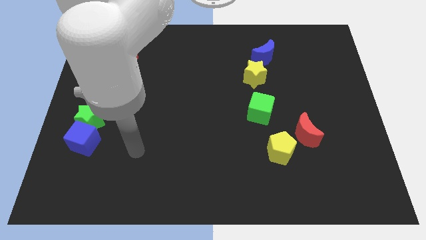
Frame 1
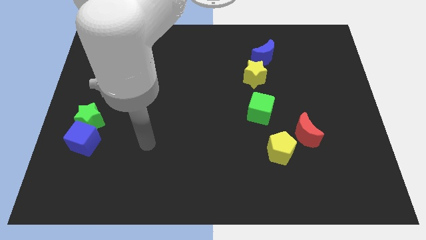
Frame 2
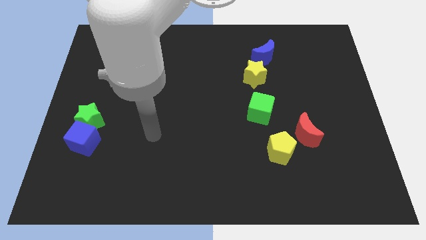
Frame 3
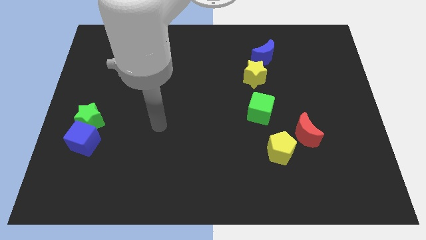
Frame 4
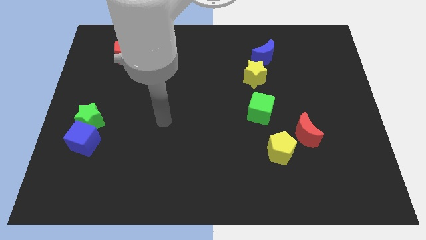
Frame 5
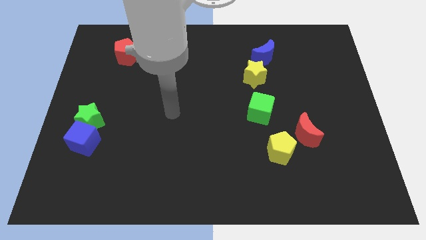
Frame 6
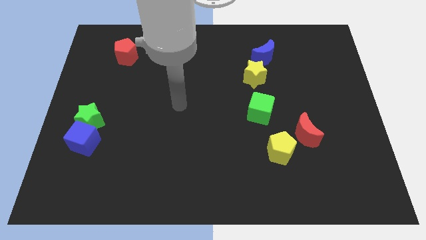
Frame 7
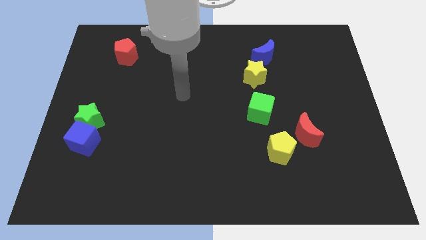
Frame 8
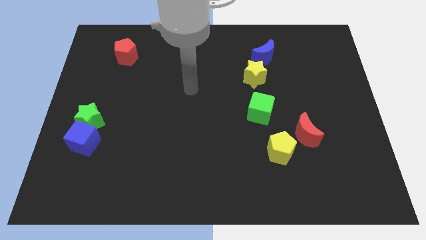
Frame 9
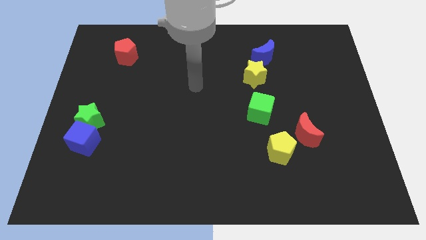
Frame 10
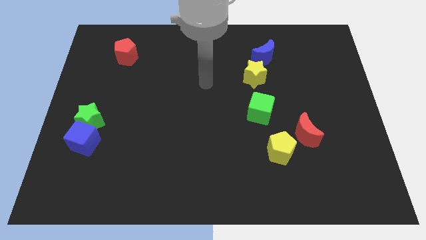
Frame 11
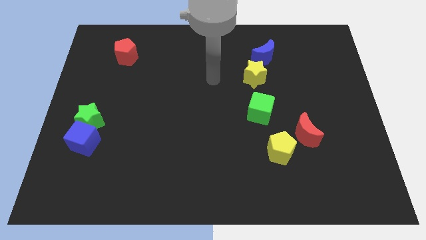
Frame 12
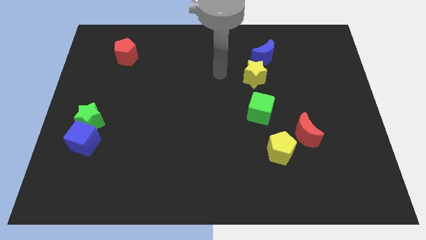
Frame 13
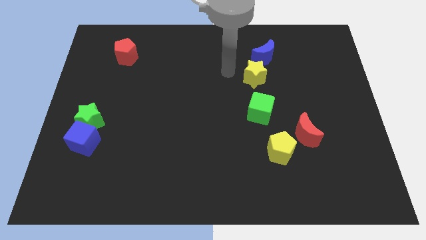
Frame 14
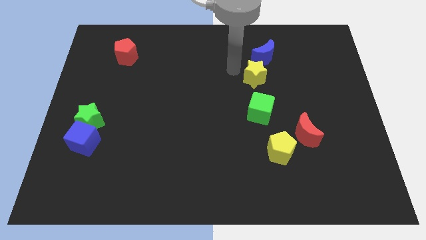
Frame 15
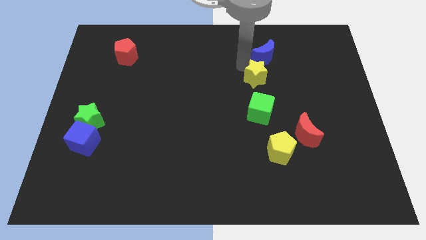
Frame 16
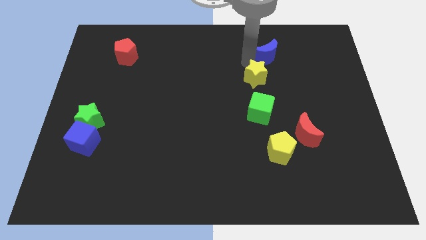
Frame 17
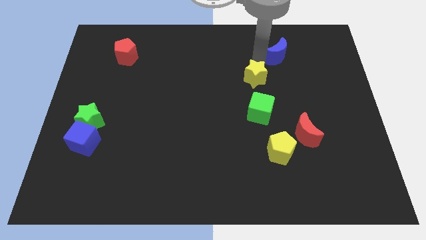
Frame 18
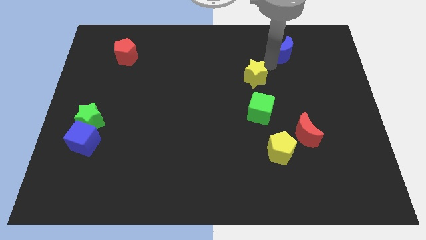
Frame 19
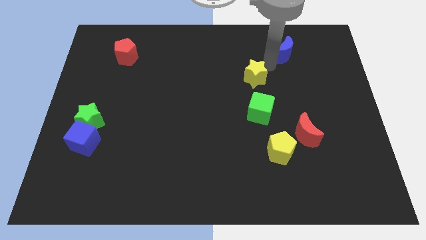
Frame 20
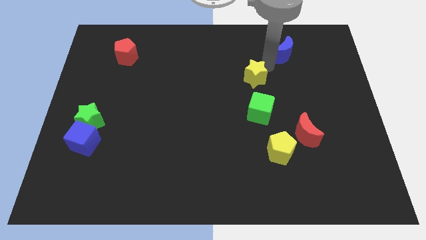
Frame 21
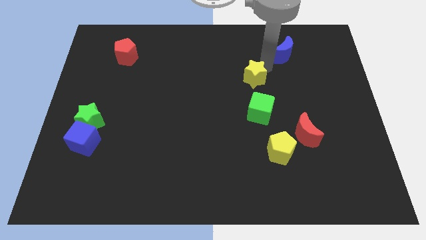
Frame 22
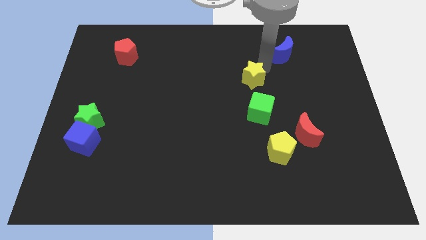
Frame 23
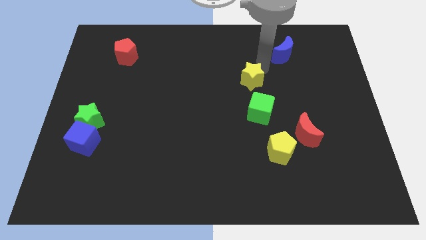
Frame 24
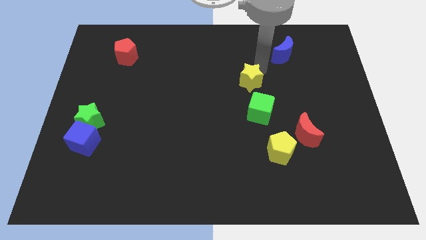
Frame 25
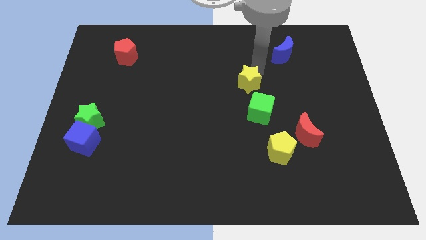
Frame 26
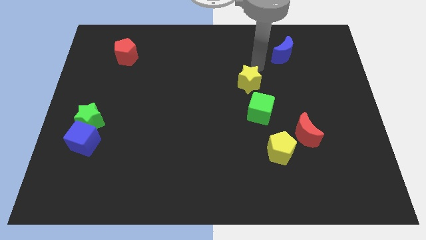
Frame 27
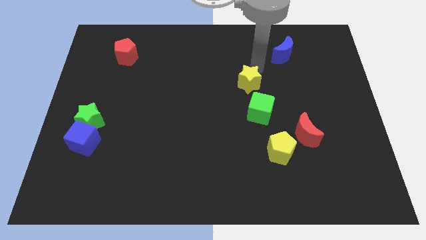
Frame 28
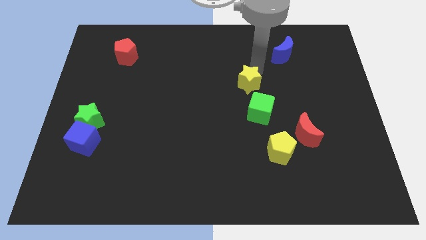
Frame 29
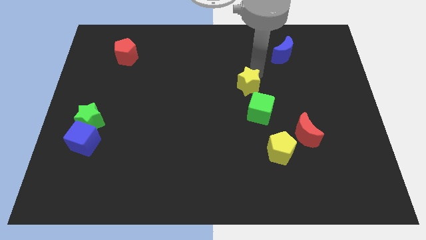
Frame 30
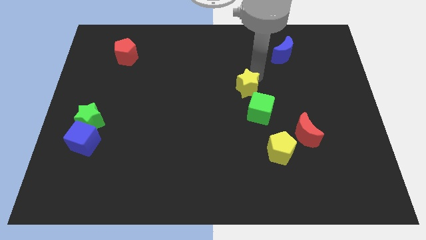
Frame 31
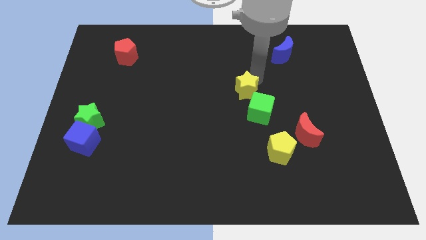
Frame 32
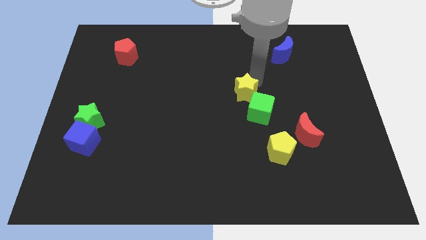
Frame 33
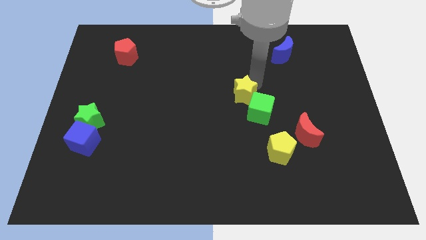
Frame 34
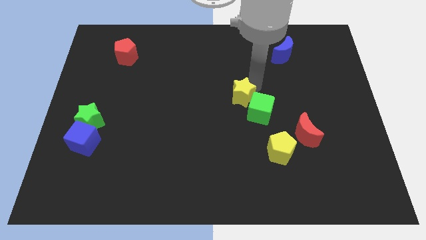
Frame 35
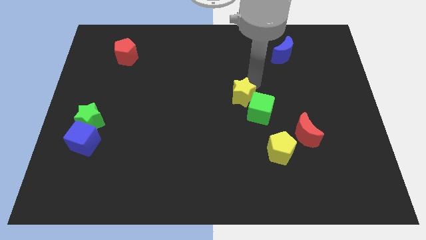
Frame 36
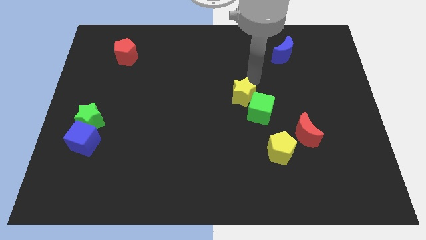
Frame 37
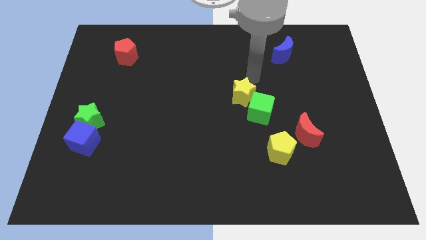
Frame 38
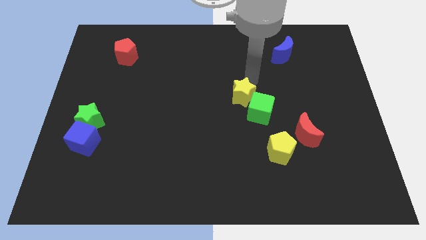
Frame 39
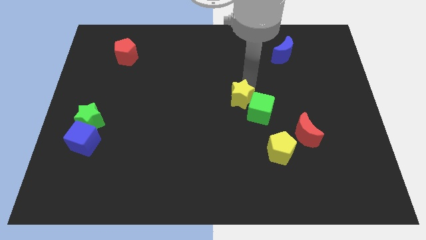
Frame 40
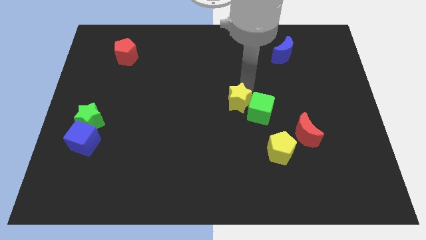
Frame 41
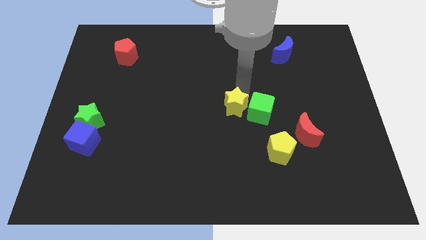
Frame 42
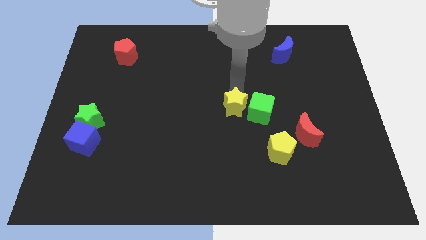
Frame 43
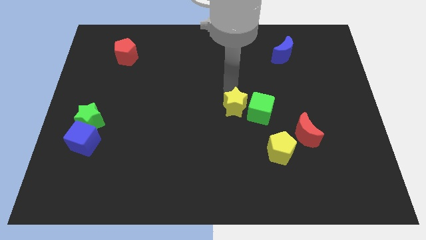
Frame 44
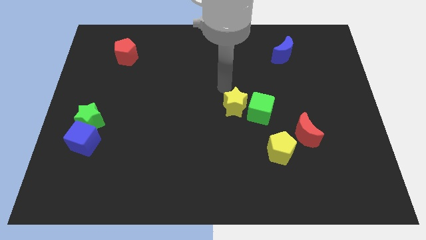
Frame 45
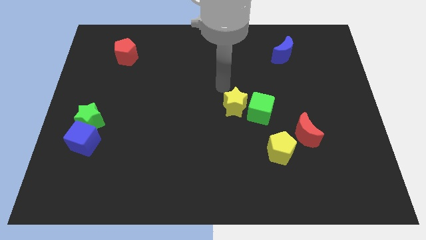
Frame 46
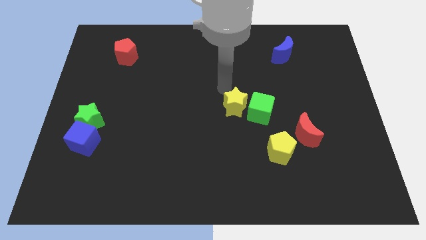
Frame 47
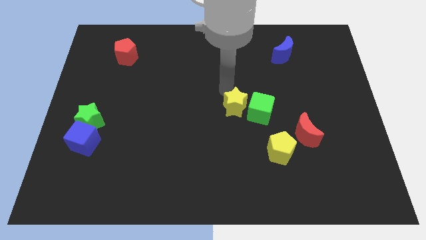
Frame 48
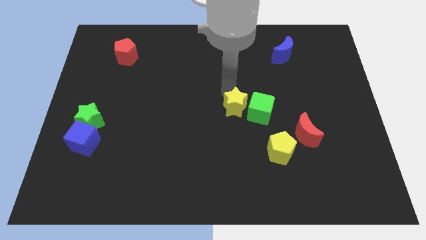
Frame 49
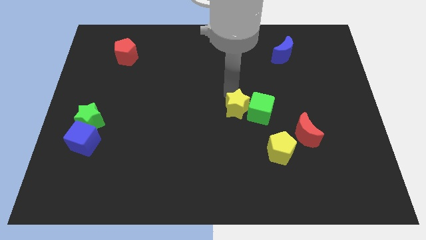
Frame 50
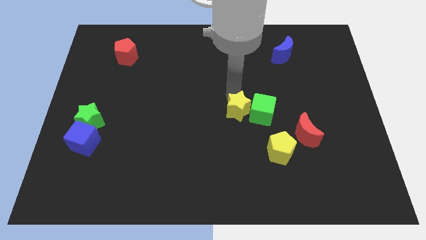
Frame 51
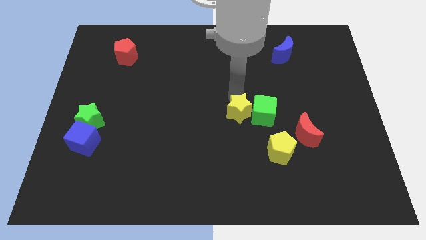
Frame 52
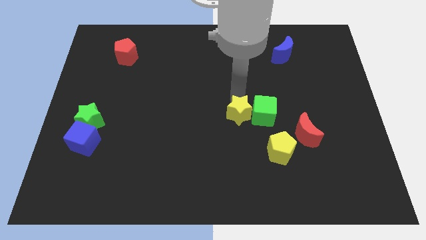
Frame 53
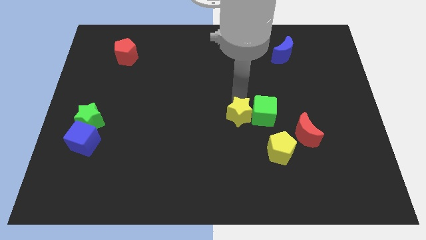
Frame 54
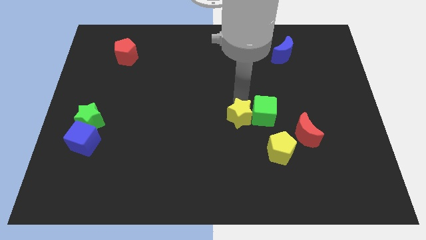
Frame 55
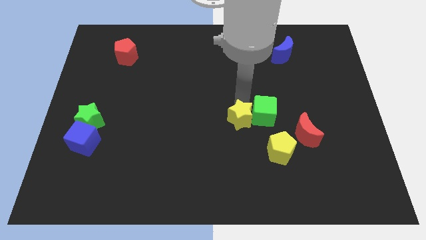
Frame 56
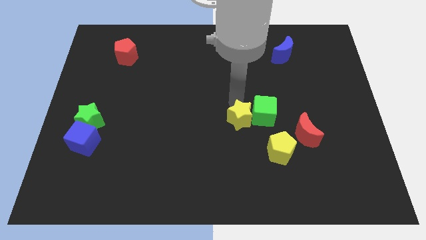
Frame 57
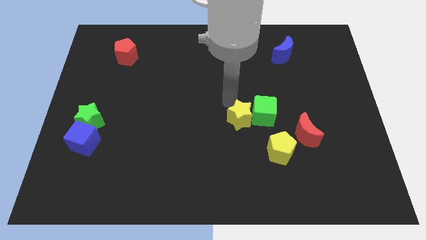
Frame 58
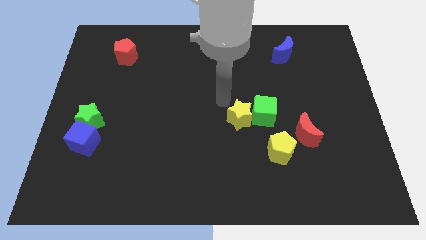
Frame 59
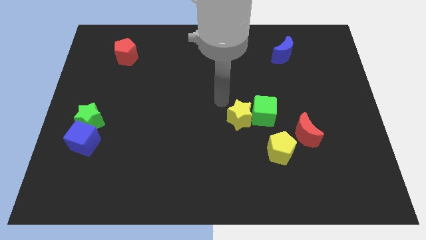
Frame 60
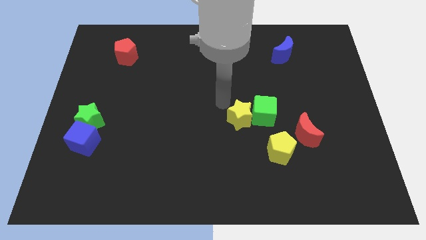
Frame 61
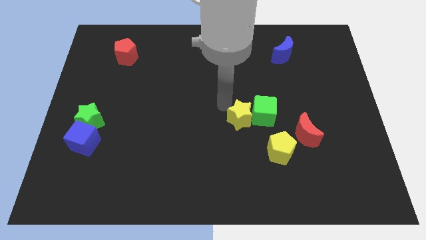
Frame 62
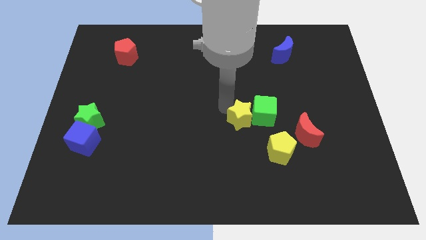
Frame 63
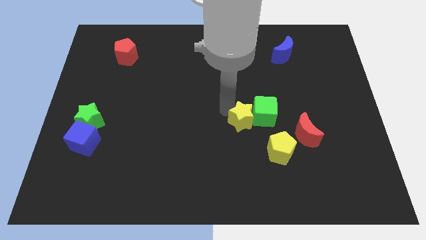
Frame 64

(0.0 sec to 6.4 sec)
move the yellow star left of the red moon
